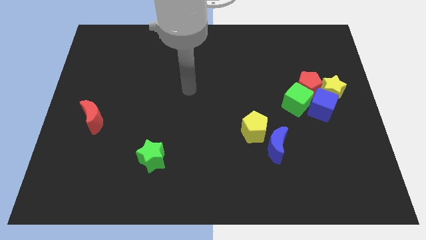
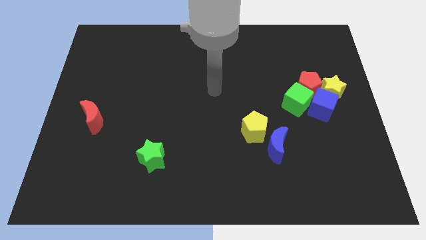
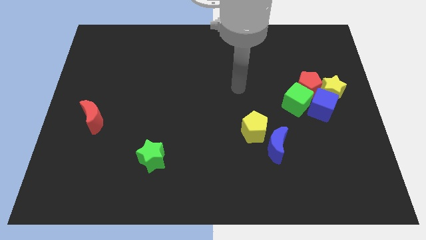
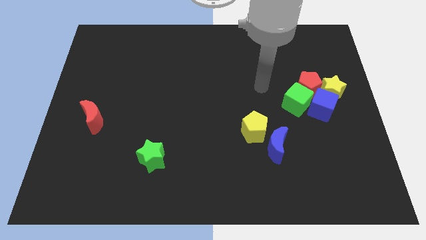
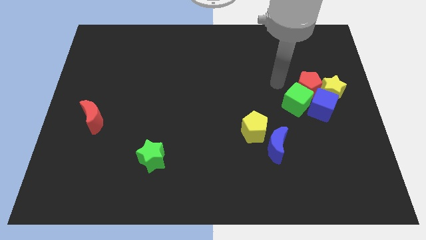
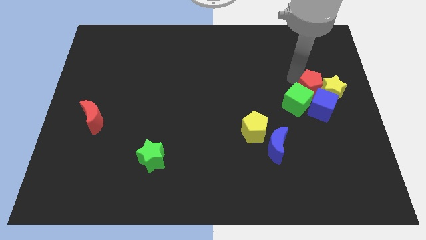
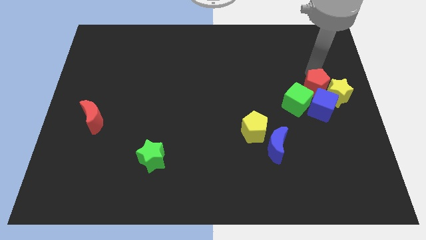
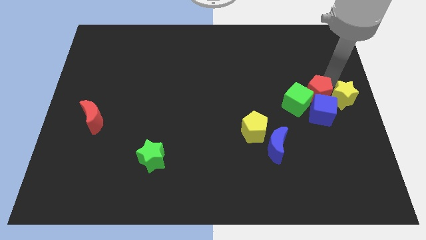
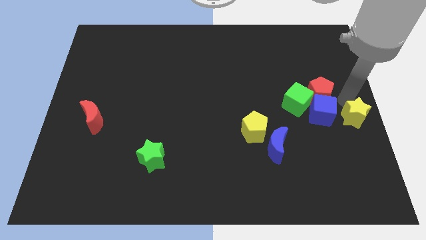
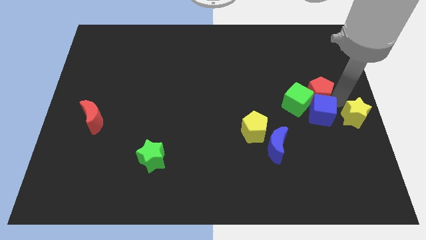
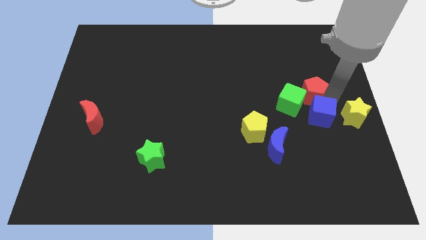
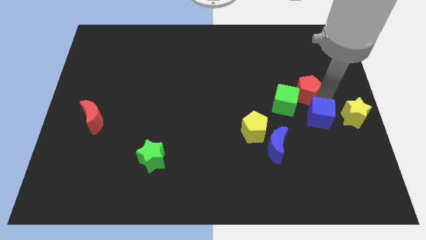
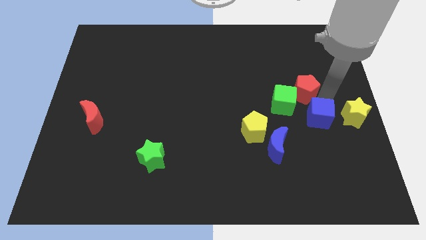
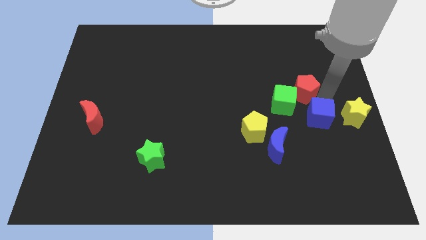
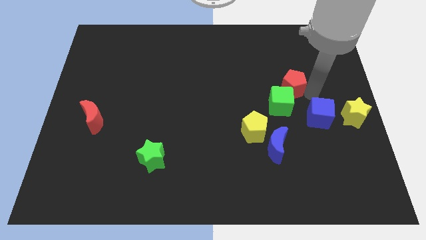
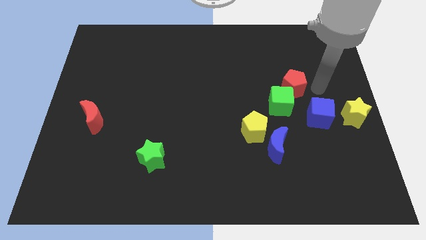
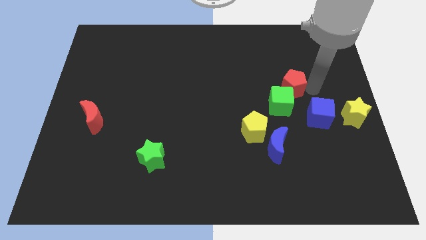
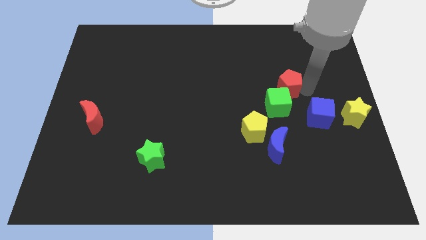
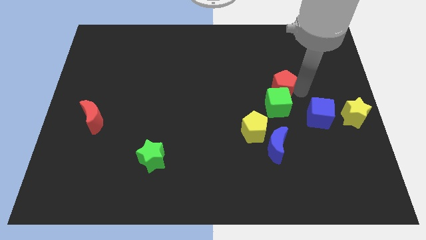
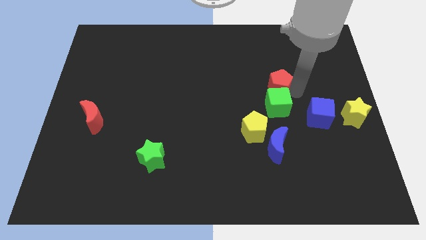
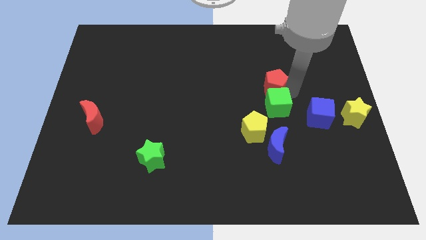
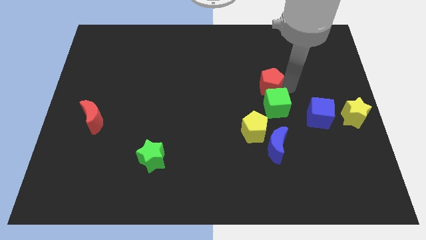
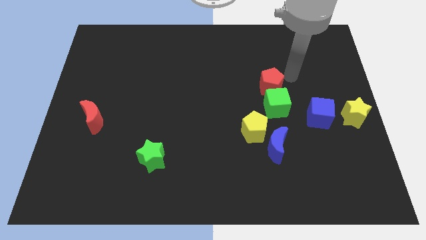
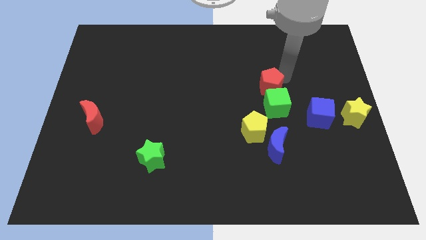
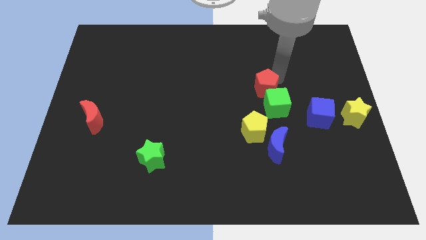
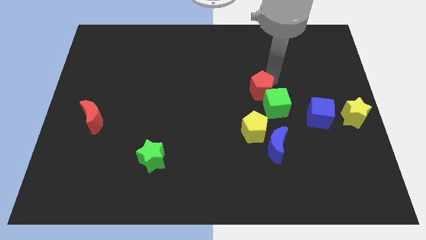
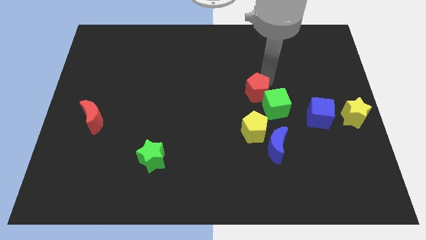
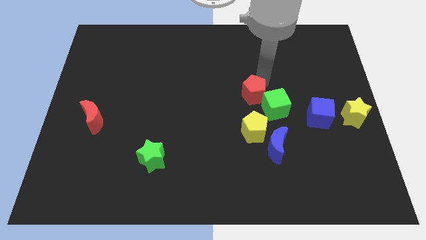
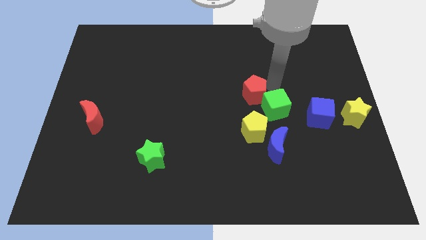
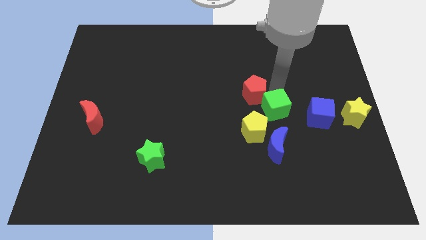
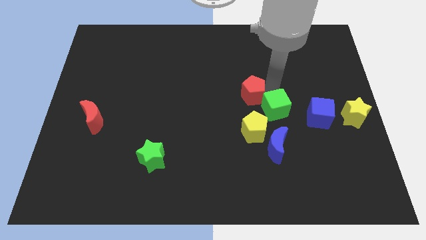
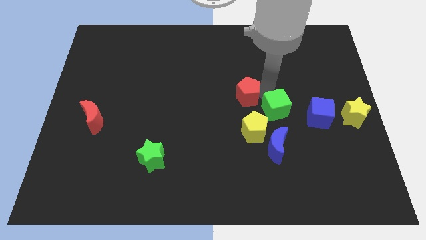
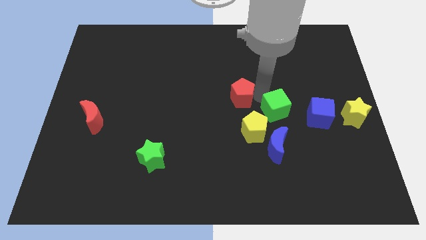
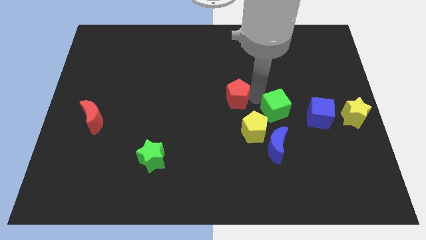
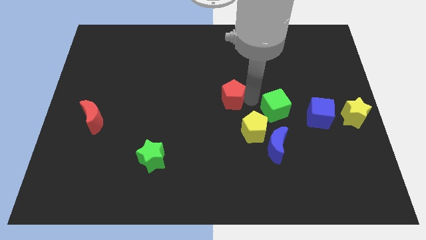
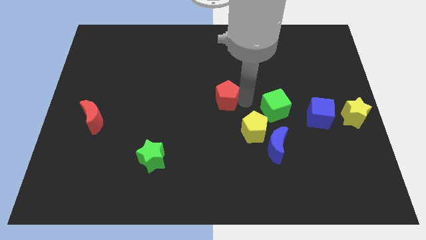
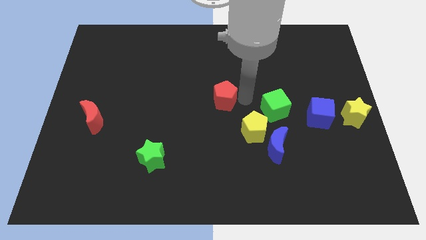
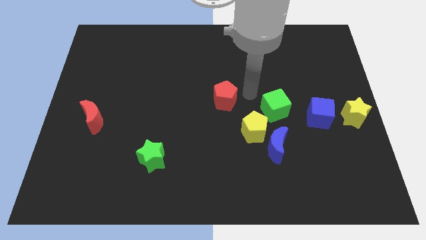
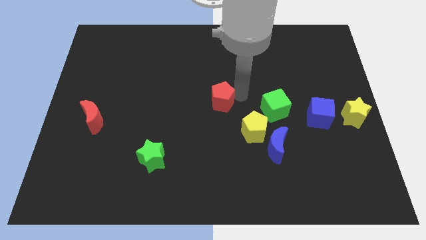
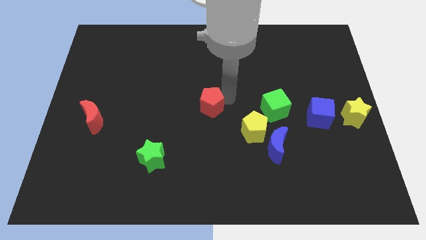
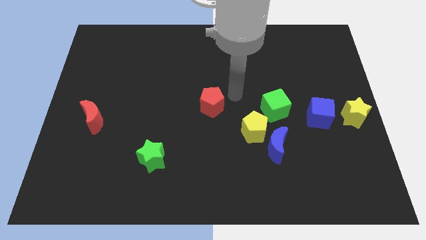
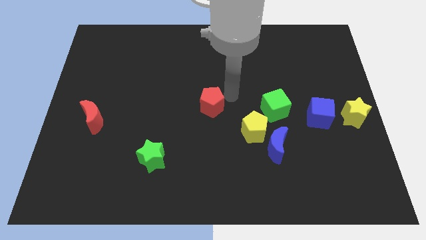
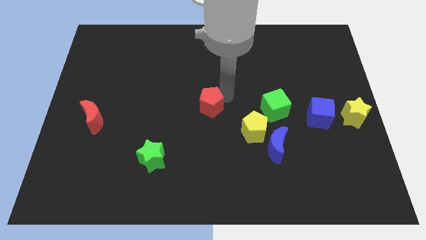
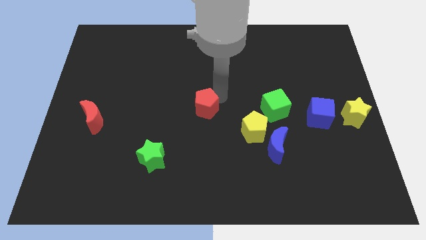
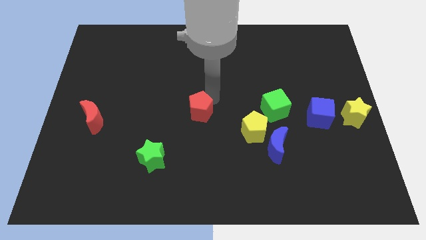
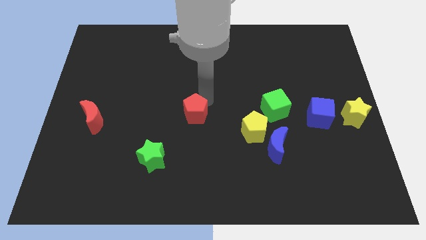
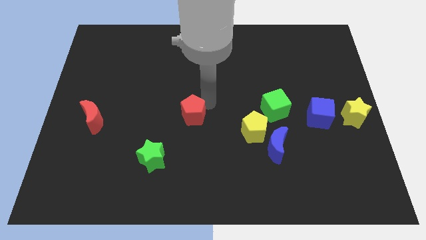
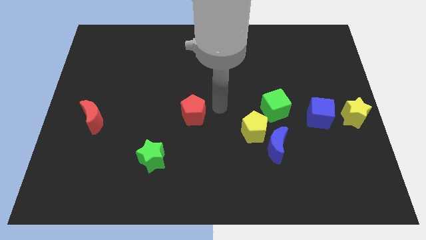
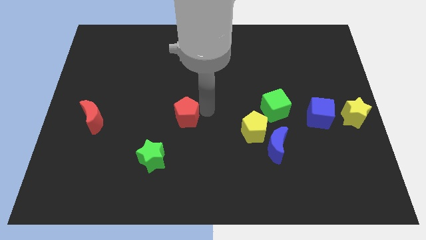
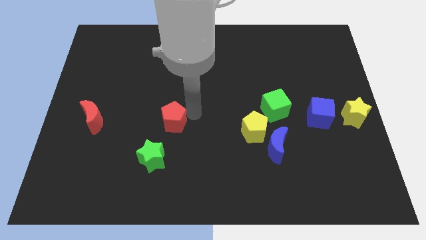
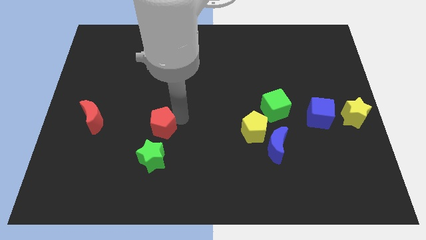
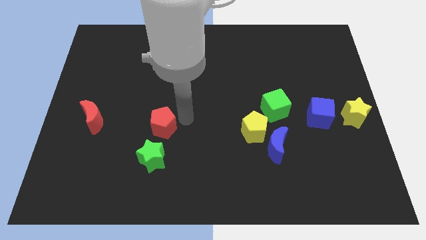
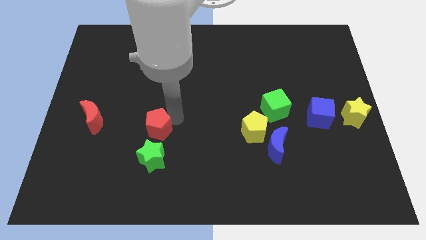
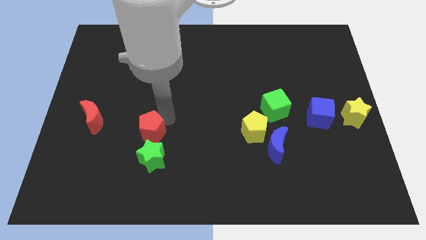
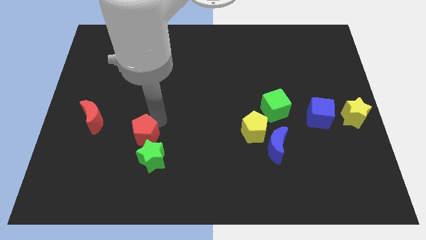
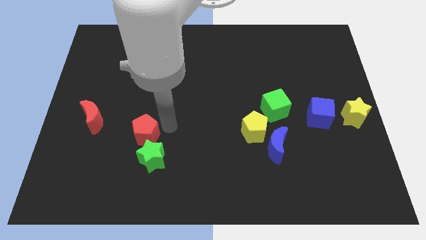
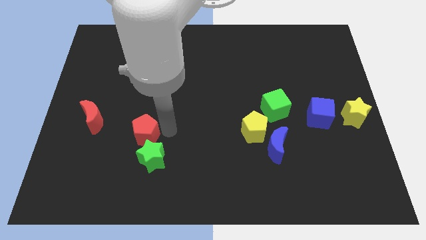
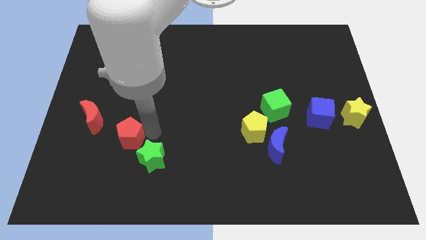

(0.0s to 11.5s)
put the red pentagon to the bottom right side of the red moon

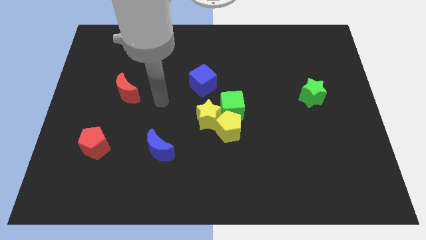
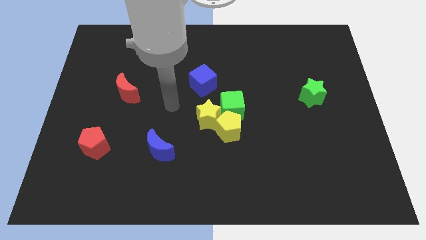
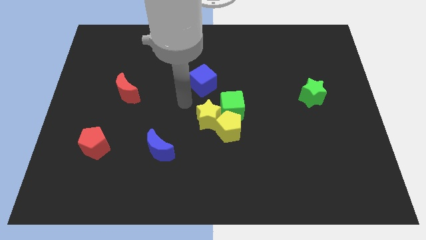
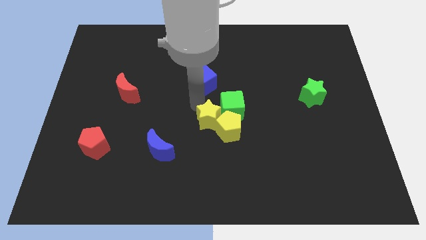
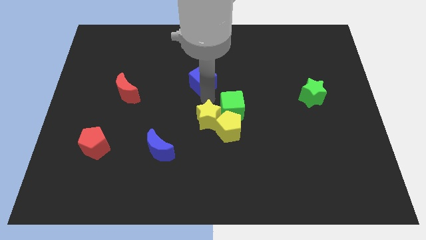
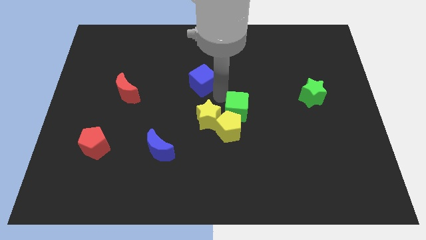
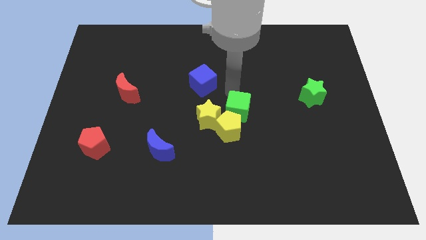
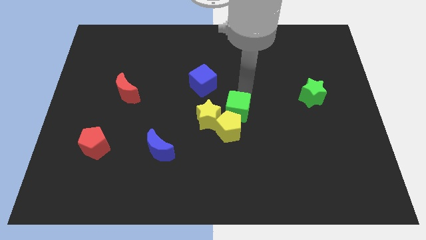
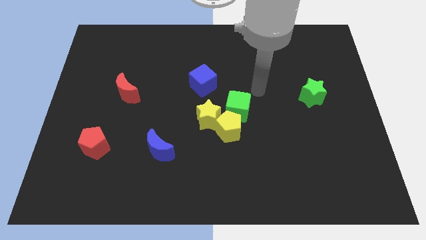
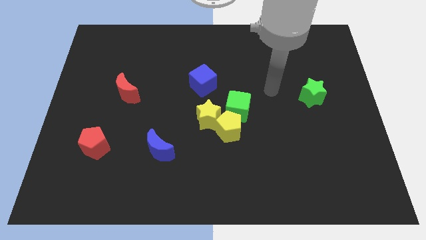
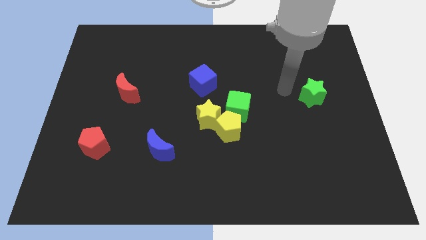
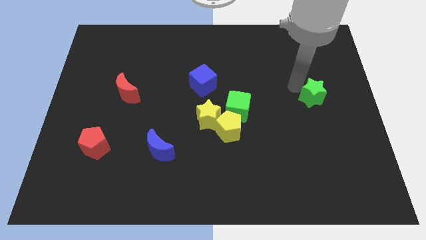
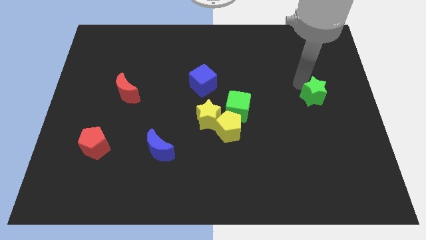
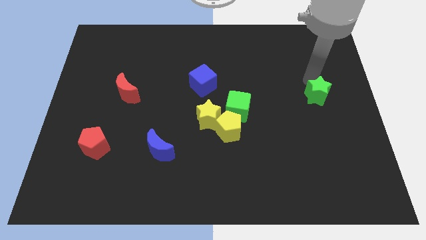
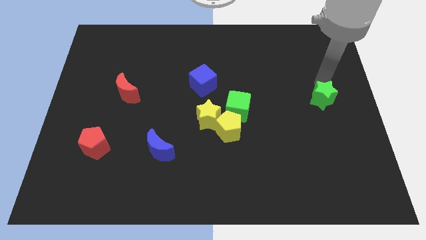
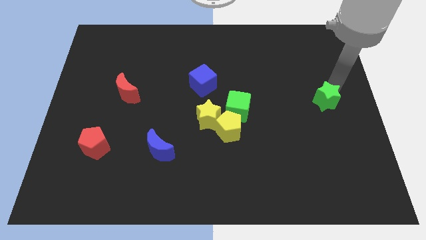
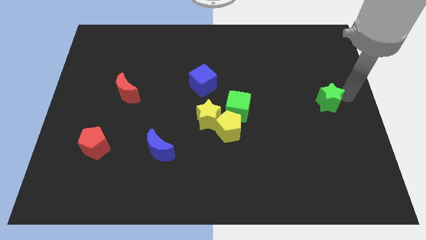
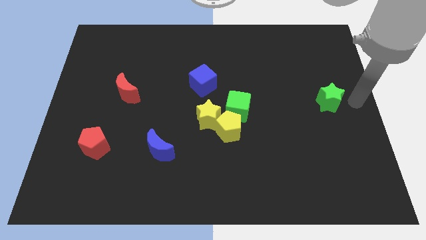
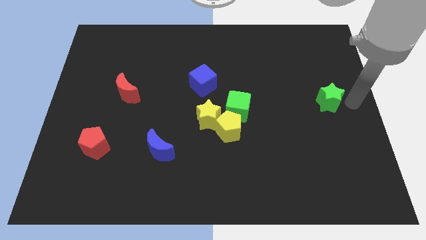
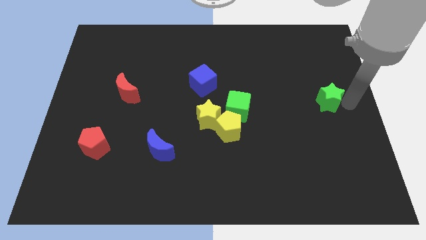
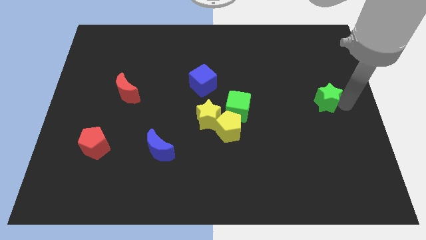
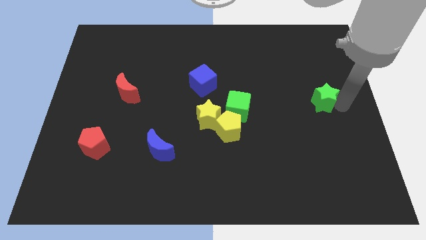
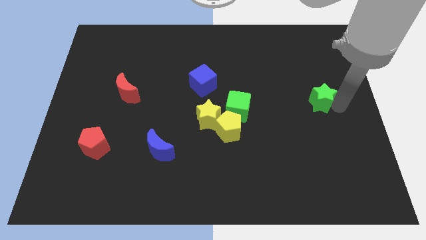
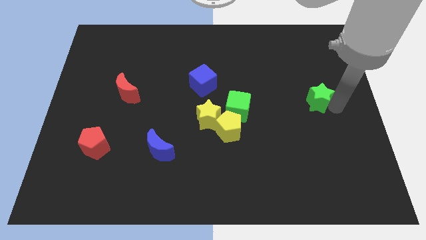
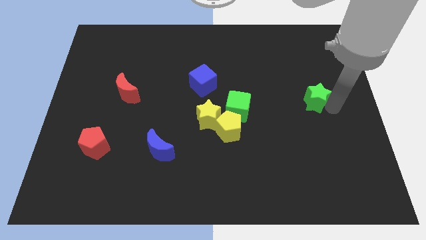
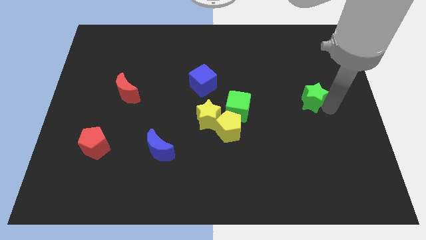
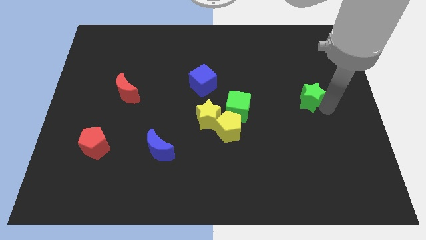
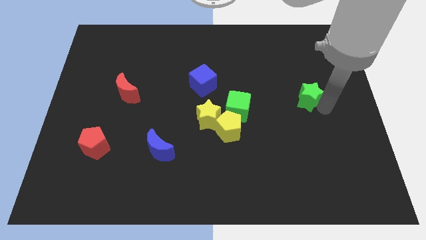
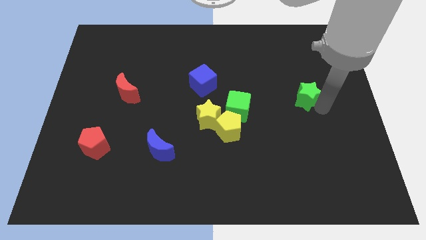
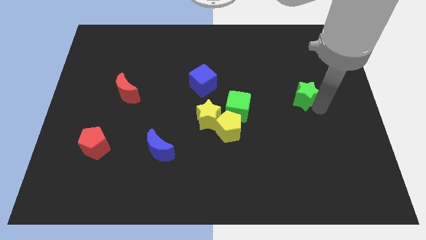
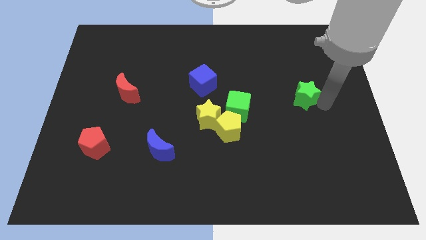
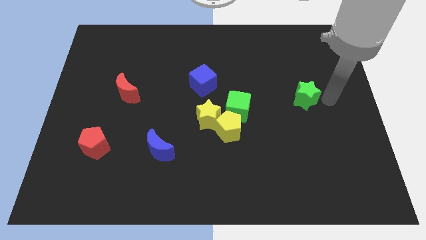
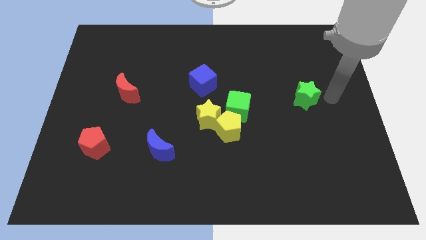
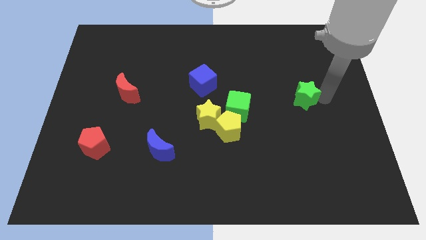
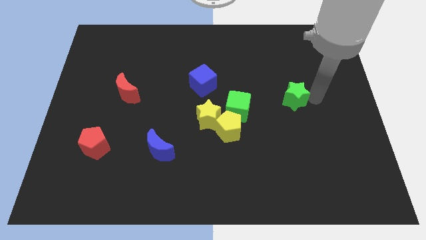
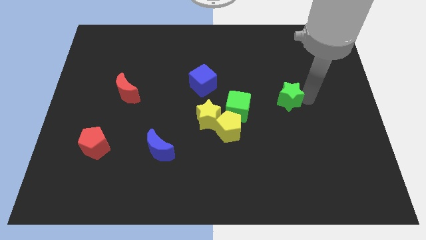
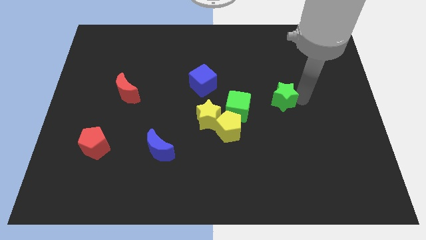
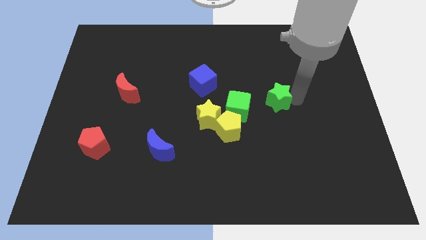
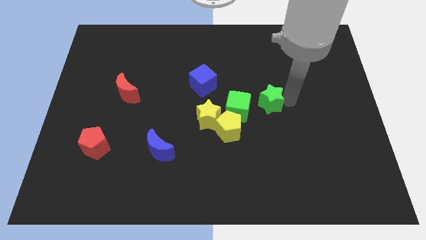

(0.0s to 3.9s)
put the green star diagonally up and to the right of the yellow pentagon
